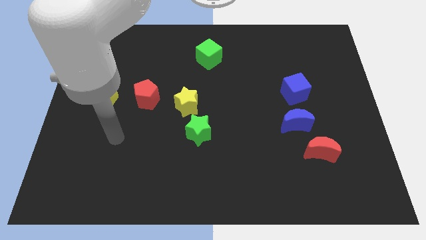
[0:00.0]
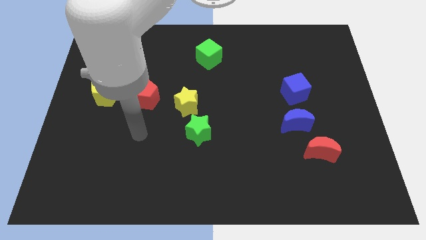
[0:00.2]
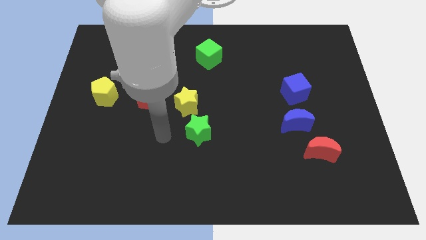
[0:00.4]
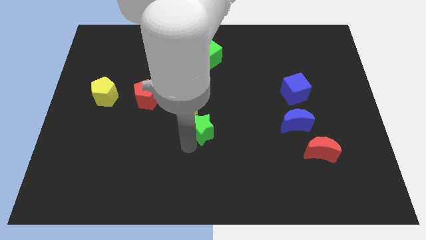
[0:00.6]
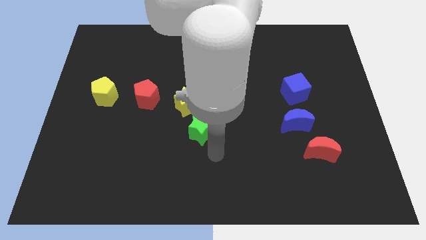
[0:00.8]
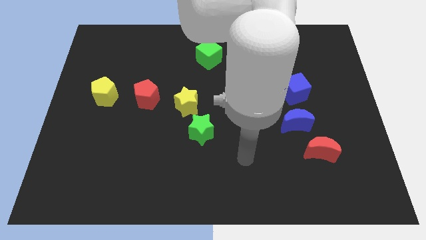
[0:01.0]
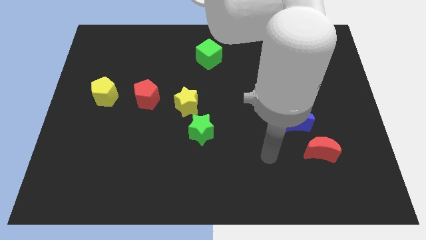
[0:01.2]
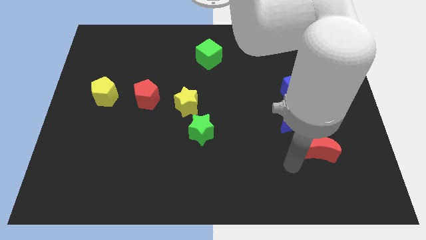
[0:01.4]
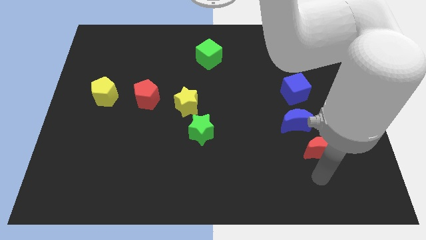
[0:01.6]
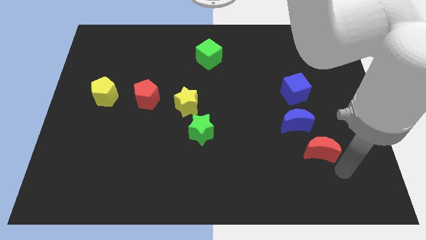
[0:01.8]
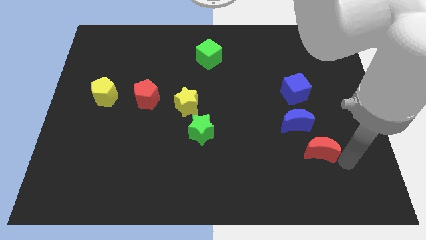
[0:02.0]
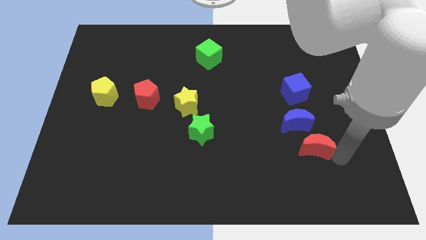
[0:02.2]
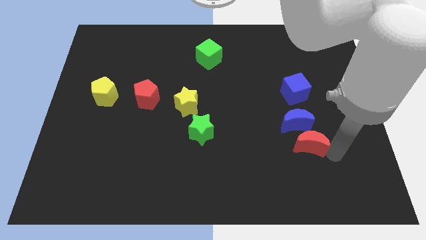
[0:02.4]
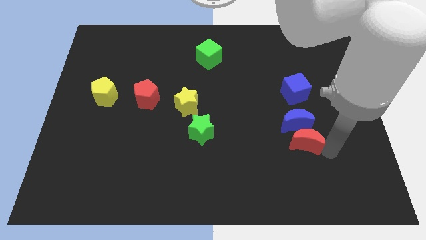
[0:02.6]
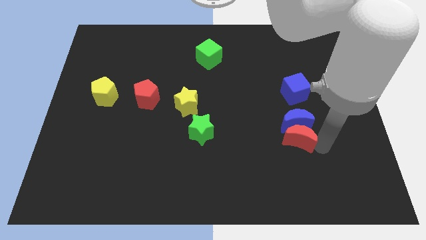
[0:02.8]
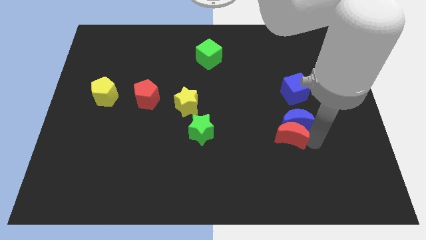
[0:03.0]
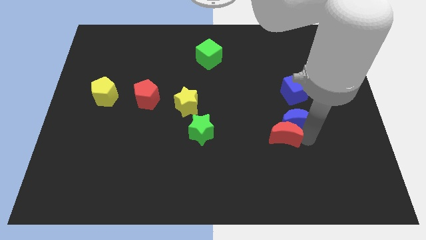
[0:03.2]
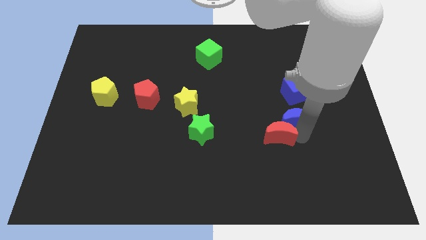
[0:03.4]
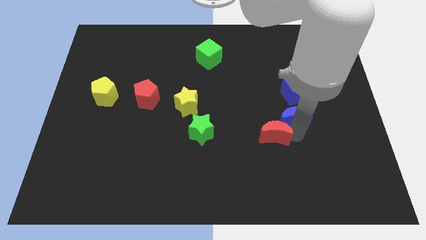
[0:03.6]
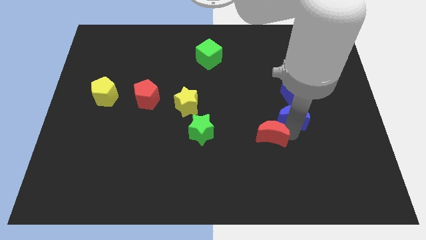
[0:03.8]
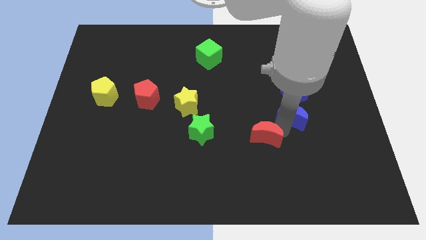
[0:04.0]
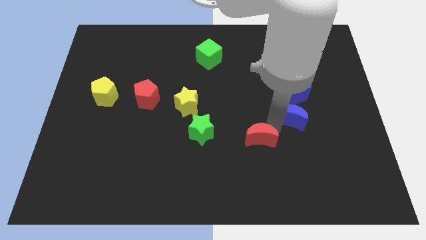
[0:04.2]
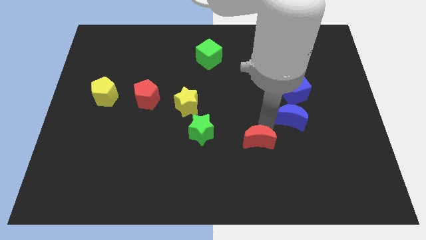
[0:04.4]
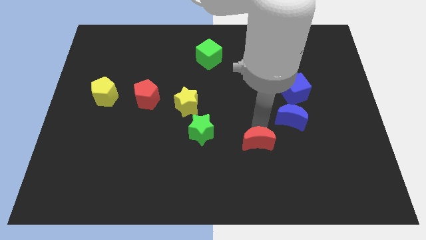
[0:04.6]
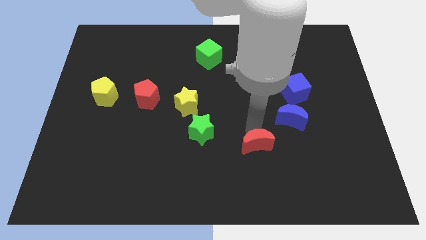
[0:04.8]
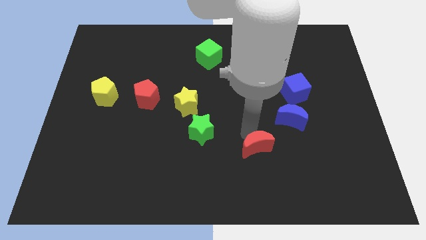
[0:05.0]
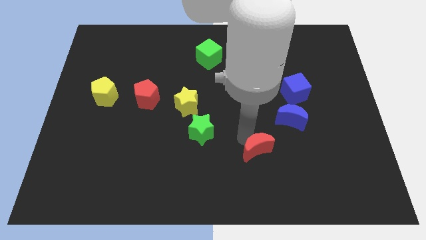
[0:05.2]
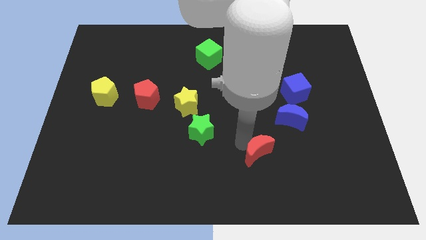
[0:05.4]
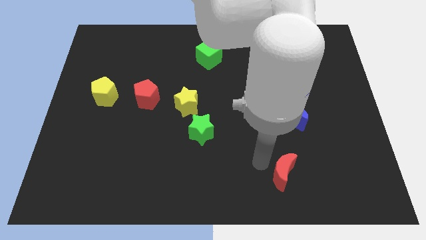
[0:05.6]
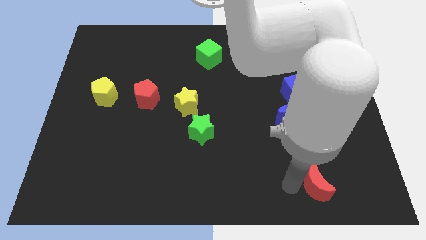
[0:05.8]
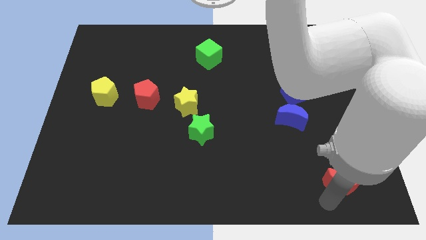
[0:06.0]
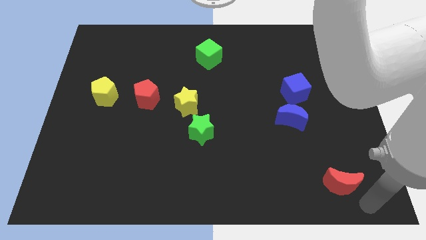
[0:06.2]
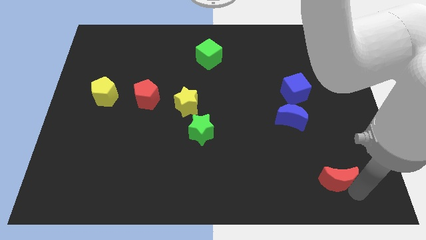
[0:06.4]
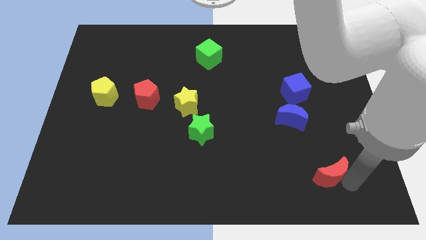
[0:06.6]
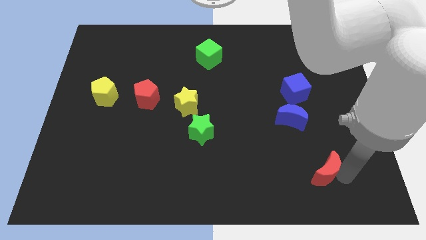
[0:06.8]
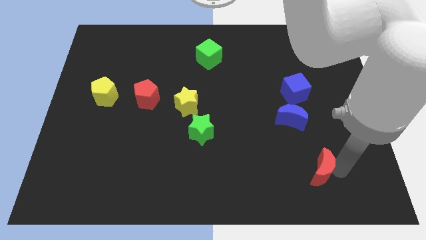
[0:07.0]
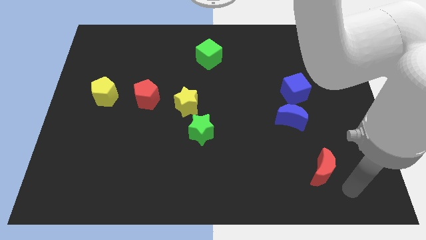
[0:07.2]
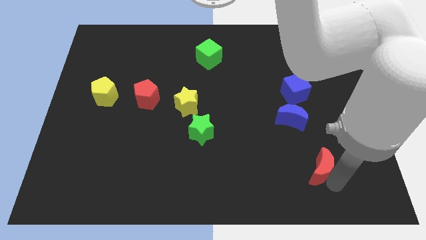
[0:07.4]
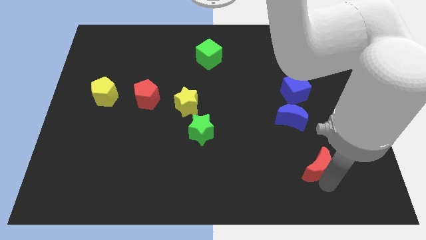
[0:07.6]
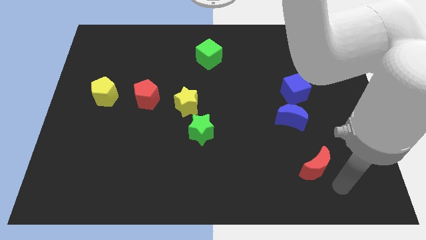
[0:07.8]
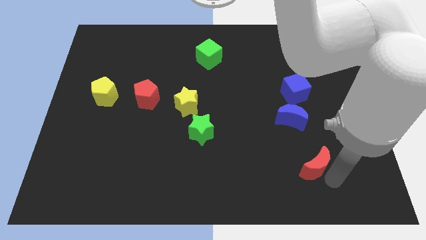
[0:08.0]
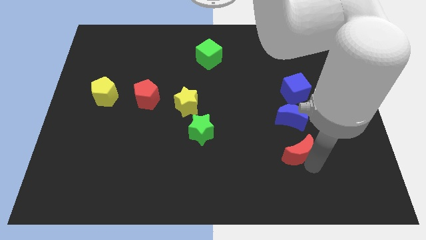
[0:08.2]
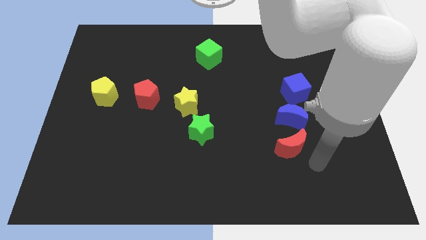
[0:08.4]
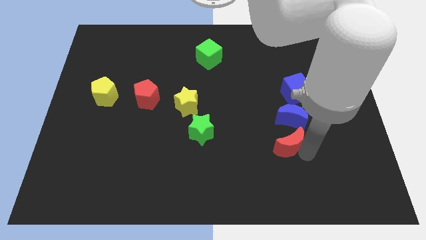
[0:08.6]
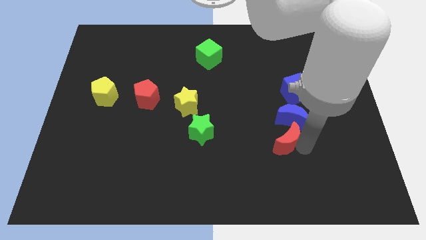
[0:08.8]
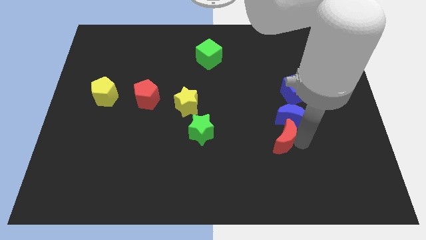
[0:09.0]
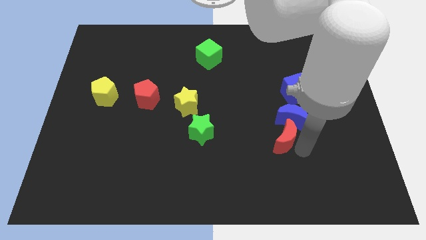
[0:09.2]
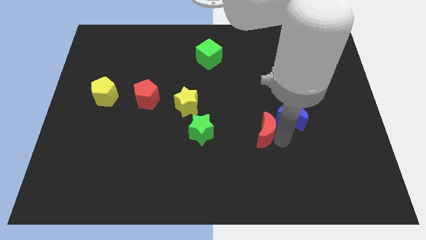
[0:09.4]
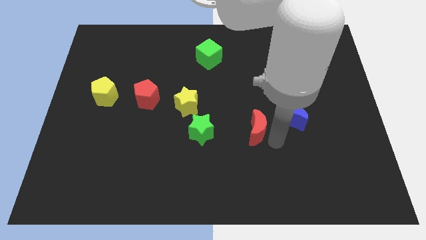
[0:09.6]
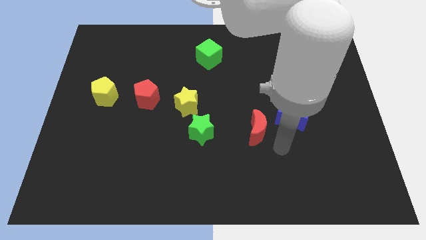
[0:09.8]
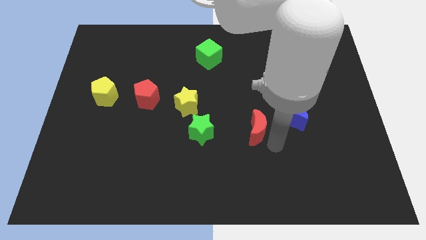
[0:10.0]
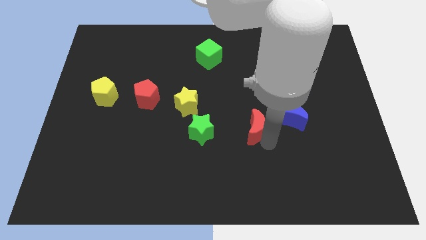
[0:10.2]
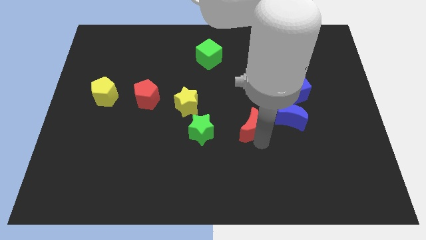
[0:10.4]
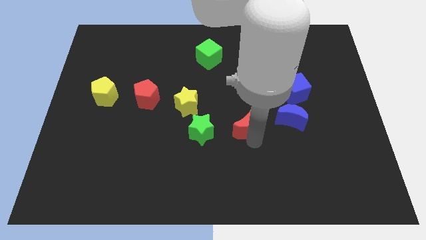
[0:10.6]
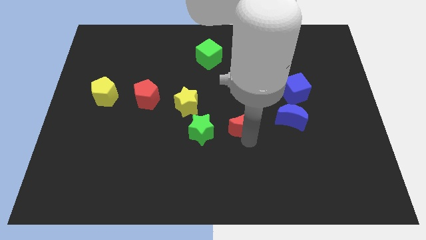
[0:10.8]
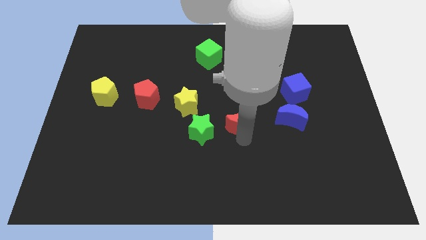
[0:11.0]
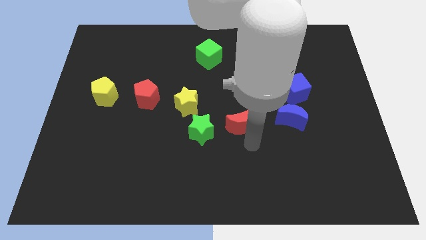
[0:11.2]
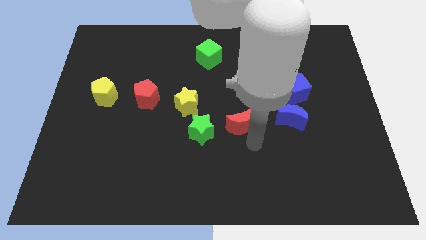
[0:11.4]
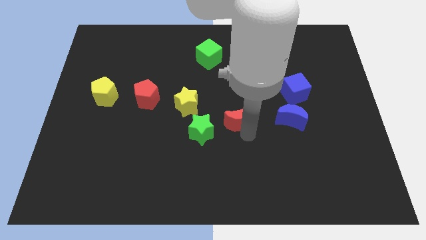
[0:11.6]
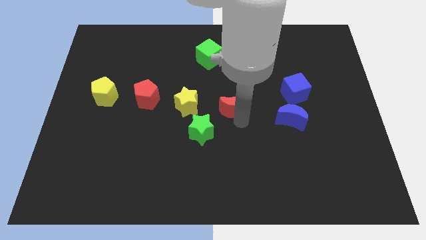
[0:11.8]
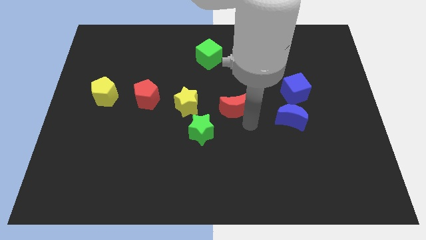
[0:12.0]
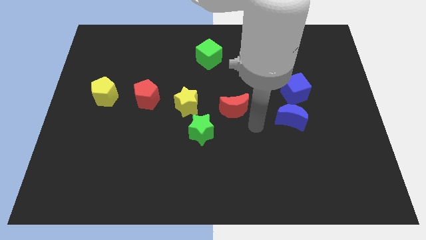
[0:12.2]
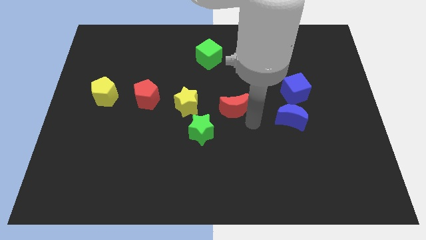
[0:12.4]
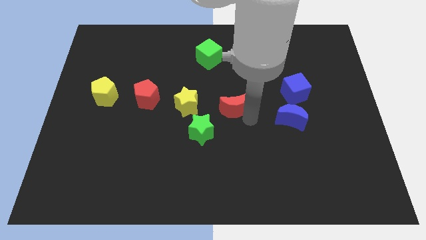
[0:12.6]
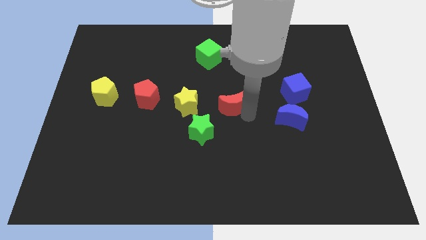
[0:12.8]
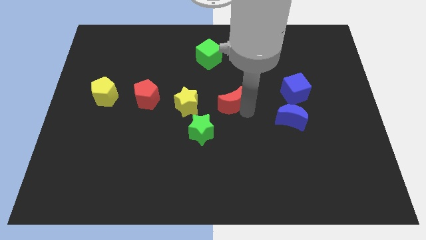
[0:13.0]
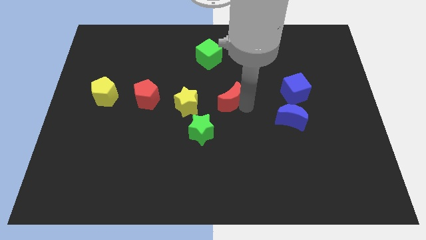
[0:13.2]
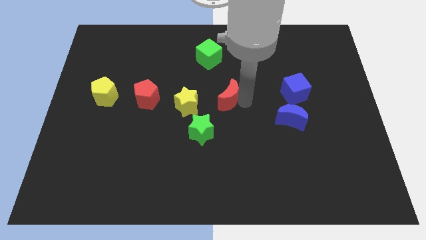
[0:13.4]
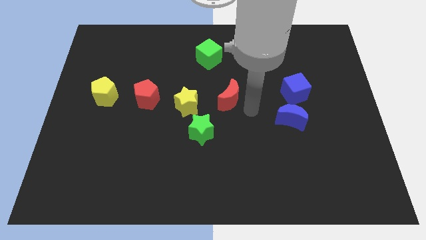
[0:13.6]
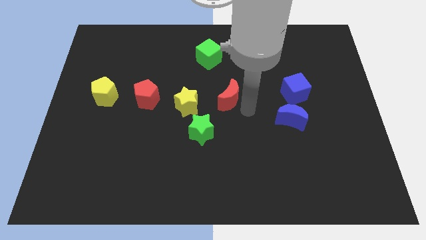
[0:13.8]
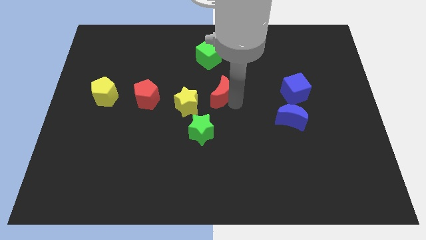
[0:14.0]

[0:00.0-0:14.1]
move the red moon to the top right of the yellow star

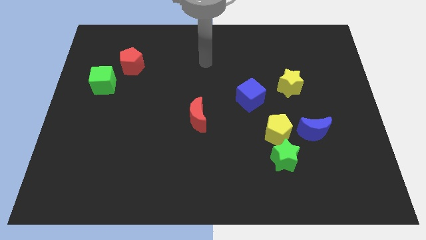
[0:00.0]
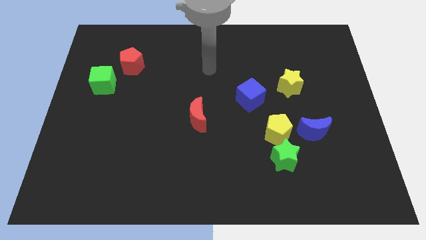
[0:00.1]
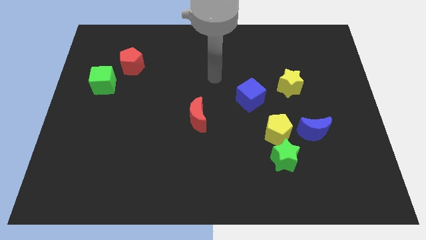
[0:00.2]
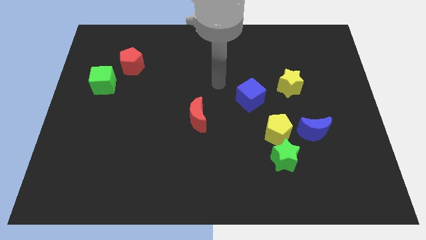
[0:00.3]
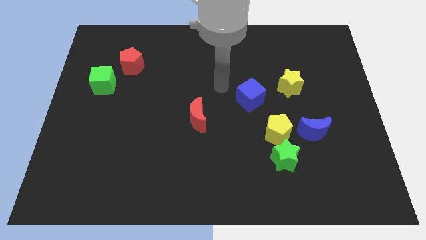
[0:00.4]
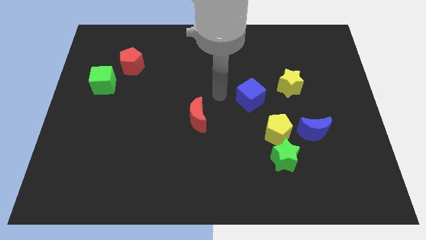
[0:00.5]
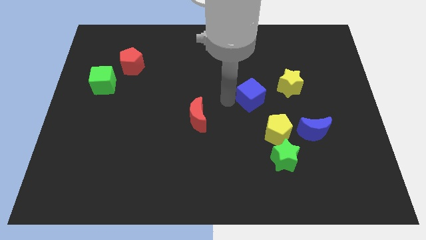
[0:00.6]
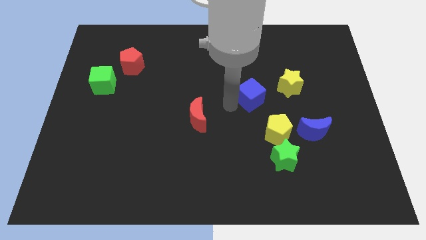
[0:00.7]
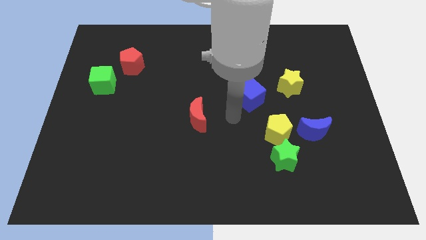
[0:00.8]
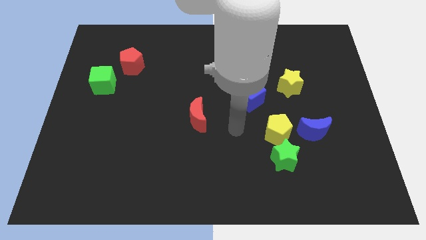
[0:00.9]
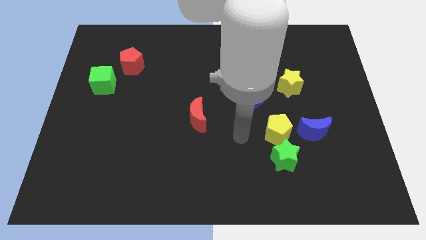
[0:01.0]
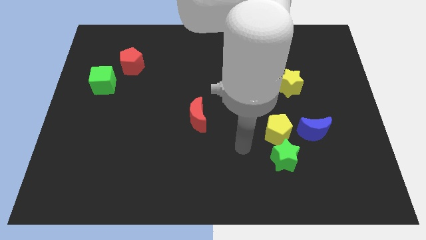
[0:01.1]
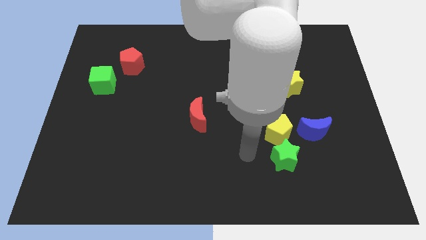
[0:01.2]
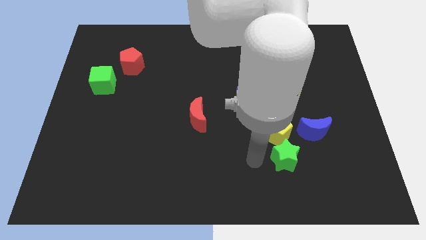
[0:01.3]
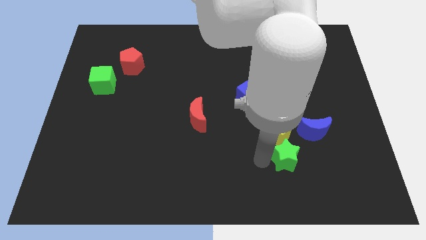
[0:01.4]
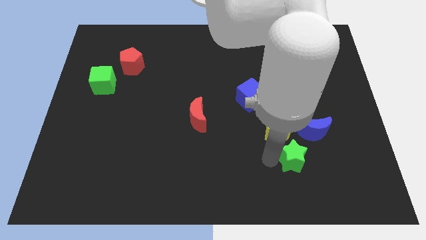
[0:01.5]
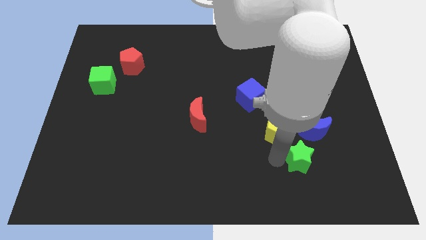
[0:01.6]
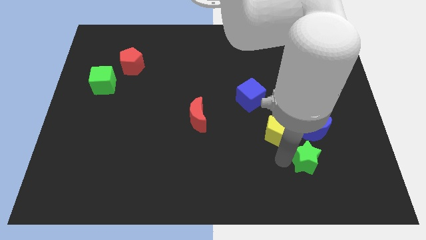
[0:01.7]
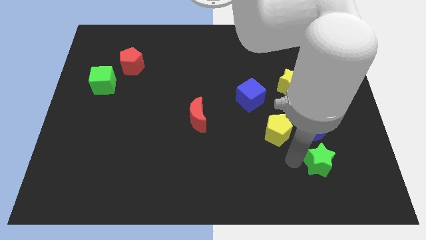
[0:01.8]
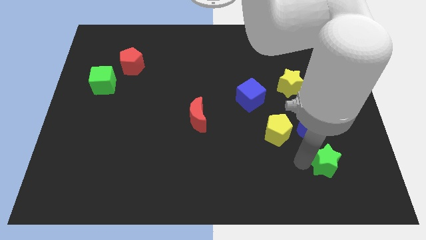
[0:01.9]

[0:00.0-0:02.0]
put the green star to the bottom right of the blue moon
